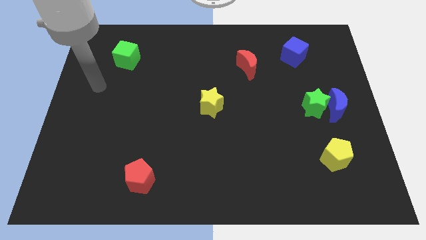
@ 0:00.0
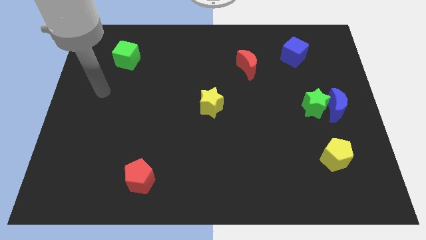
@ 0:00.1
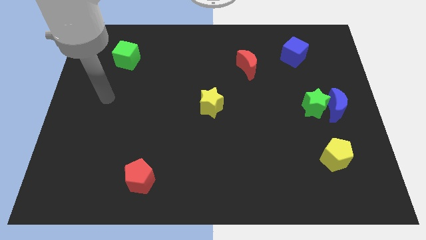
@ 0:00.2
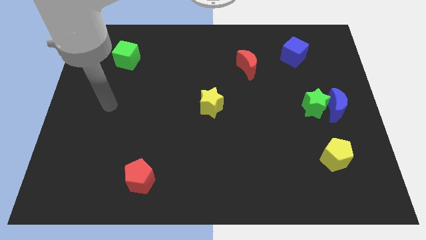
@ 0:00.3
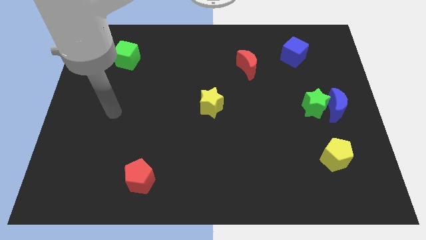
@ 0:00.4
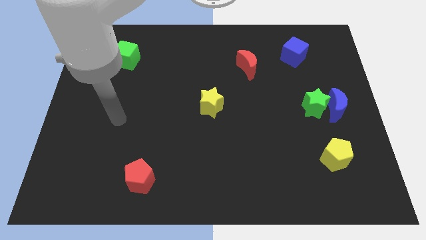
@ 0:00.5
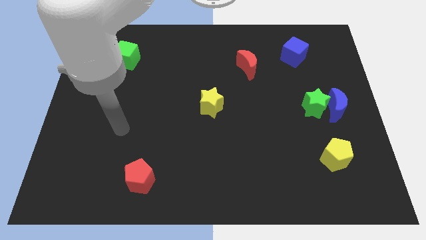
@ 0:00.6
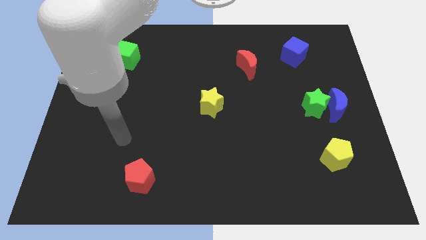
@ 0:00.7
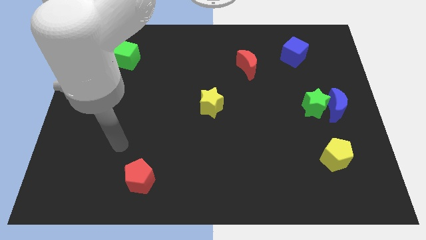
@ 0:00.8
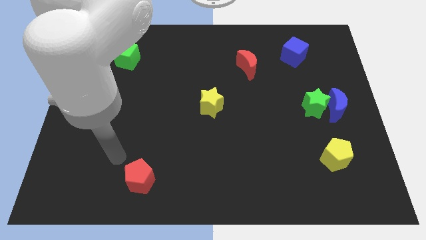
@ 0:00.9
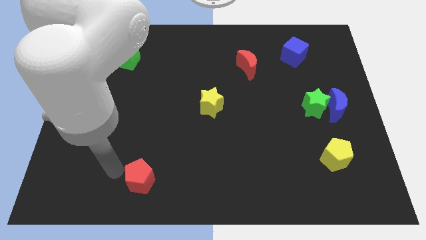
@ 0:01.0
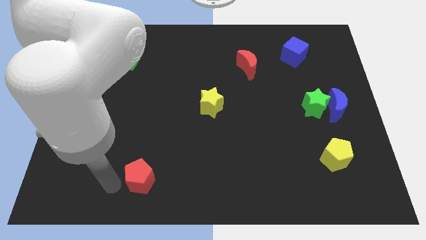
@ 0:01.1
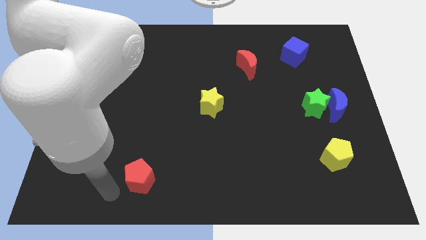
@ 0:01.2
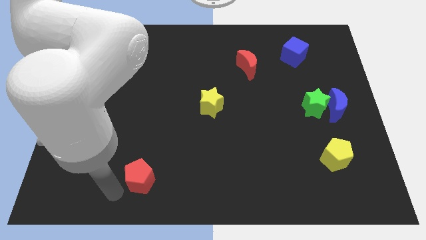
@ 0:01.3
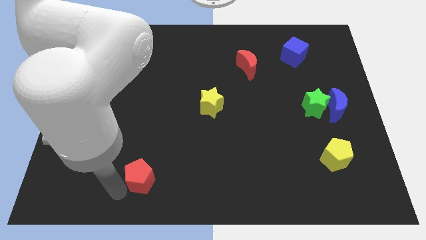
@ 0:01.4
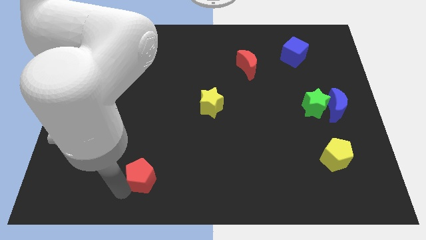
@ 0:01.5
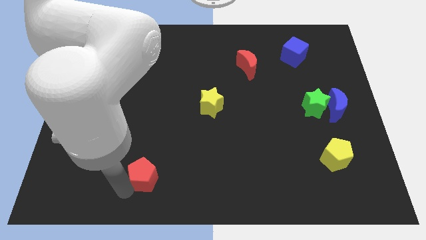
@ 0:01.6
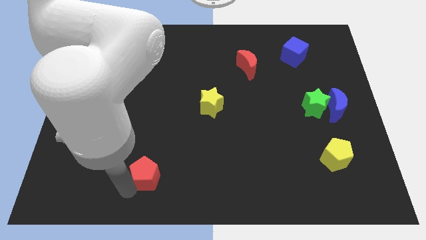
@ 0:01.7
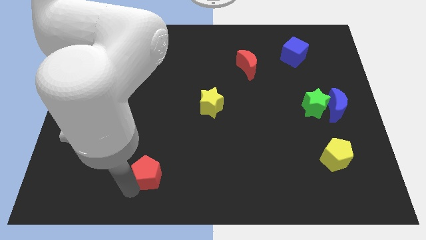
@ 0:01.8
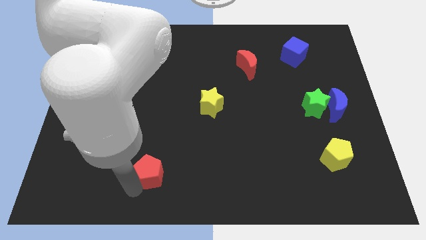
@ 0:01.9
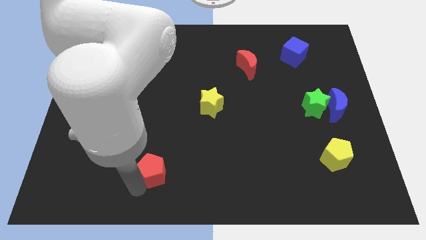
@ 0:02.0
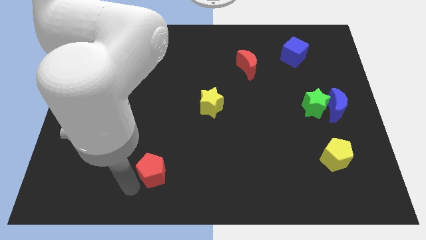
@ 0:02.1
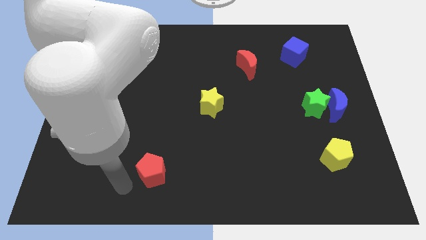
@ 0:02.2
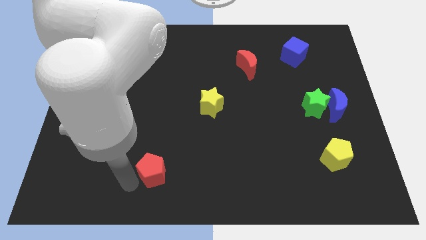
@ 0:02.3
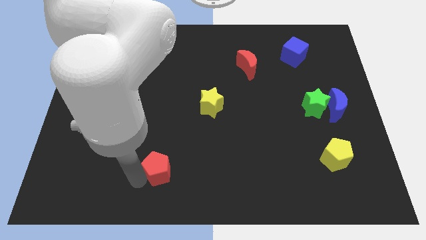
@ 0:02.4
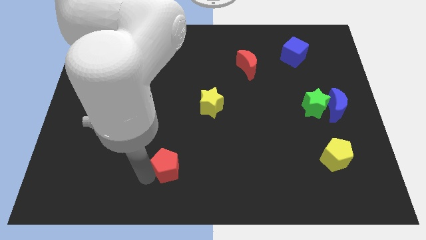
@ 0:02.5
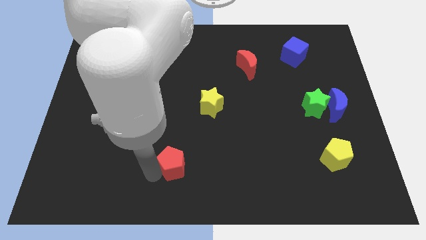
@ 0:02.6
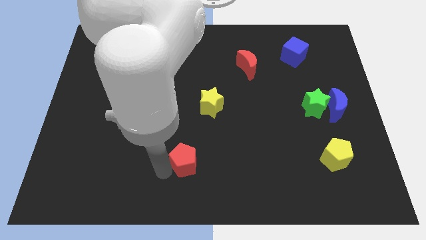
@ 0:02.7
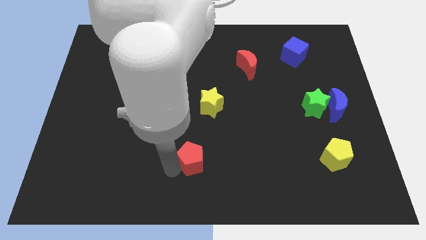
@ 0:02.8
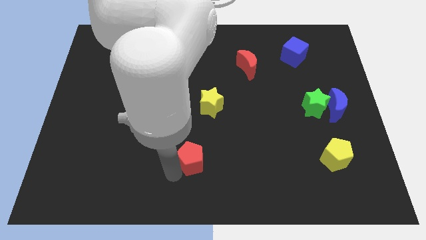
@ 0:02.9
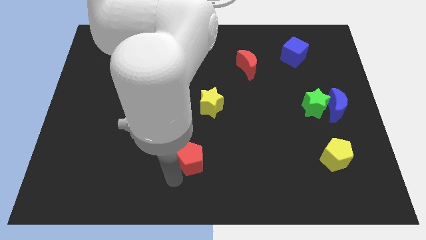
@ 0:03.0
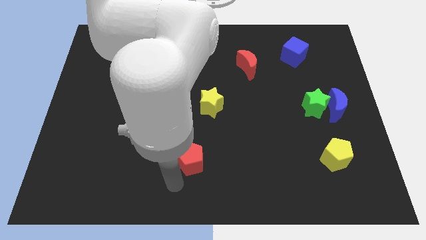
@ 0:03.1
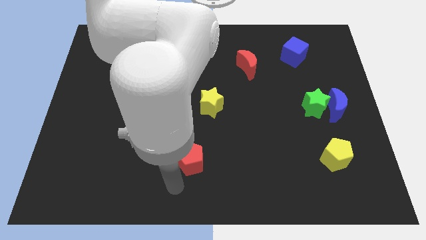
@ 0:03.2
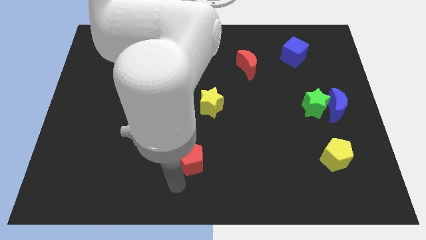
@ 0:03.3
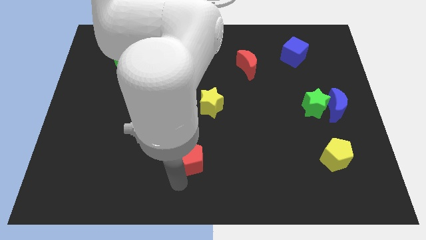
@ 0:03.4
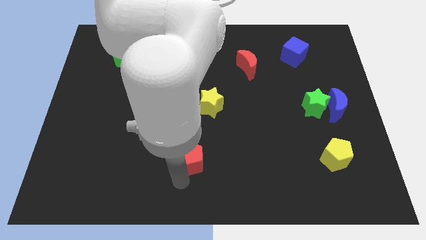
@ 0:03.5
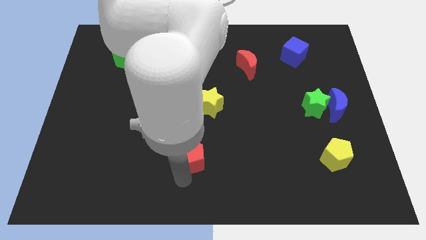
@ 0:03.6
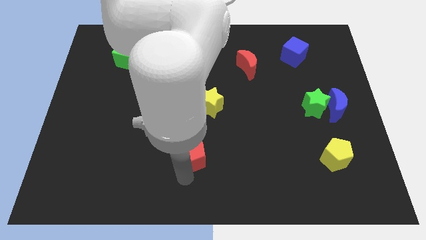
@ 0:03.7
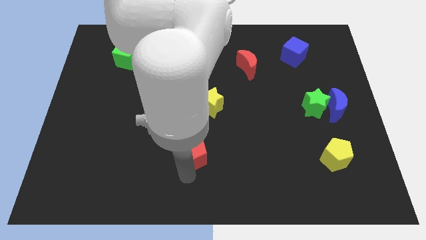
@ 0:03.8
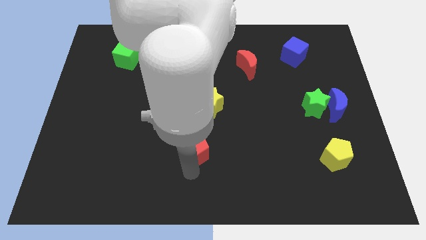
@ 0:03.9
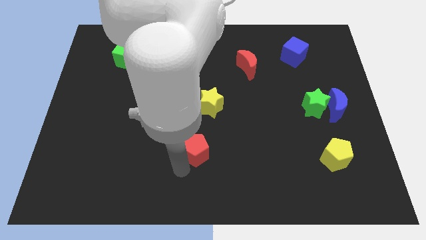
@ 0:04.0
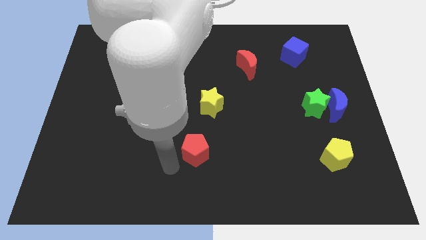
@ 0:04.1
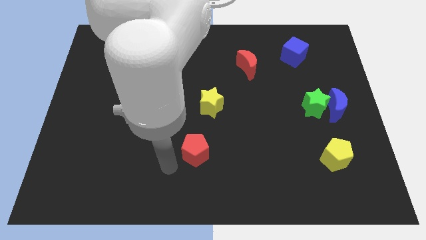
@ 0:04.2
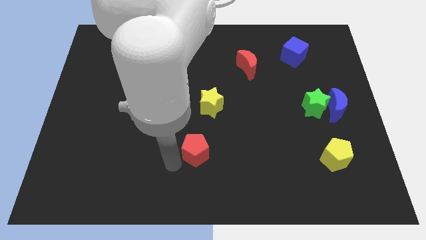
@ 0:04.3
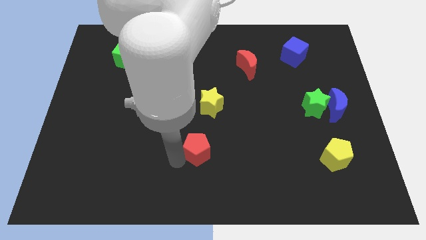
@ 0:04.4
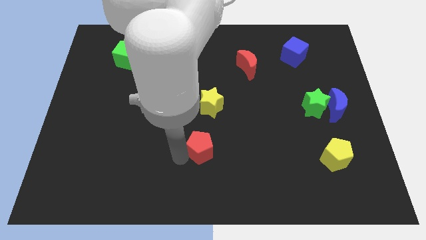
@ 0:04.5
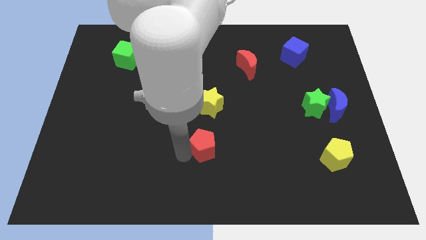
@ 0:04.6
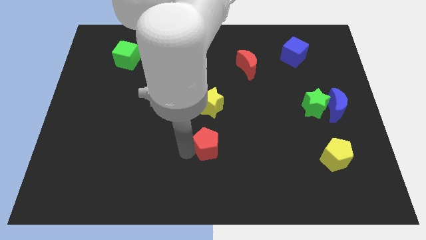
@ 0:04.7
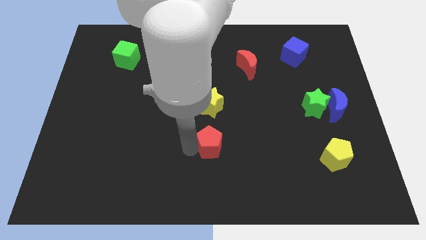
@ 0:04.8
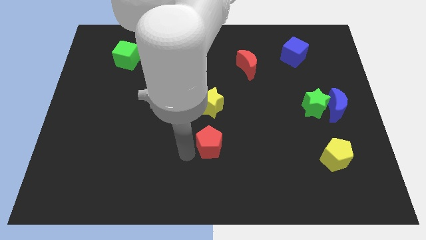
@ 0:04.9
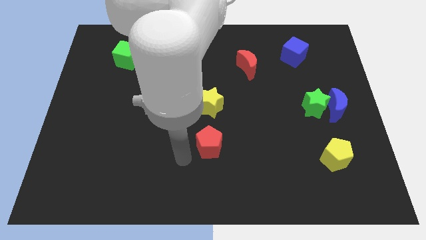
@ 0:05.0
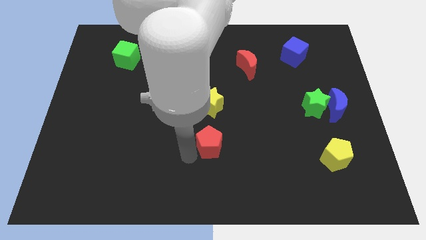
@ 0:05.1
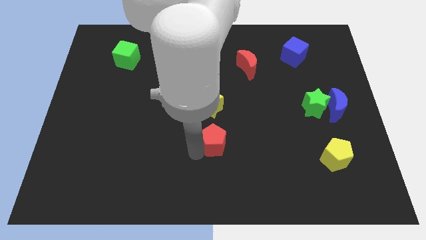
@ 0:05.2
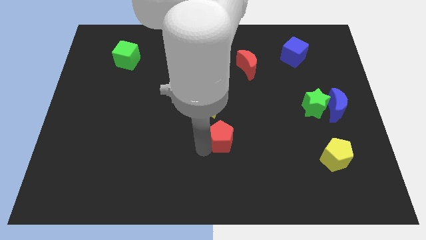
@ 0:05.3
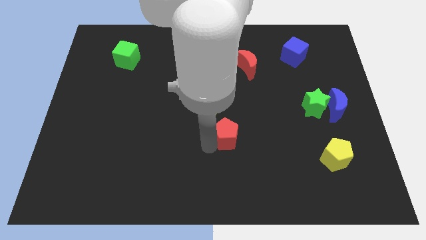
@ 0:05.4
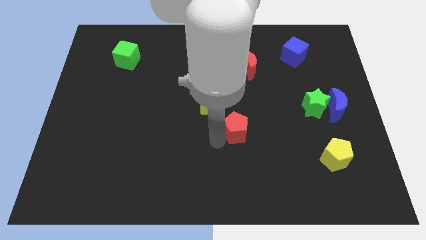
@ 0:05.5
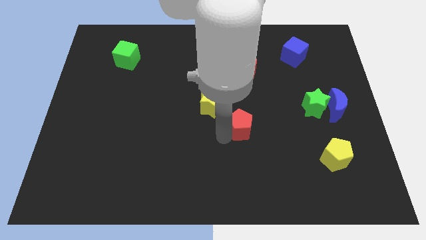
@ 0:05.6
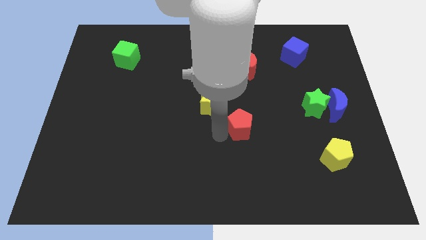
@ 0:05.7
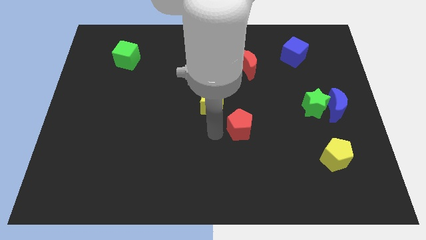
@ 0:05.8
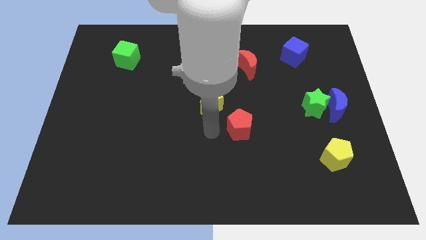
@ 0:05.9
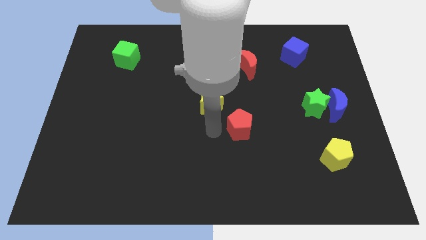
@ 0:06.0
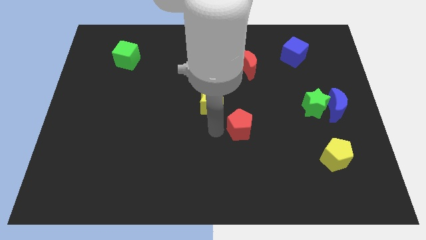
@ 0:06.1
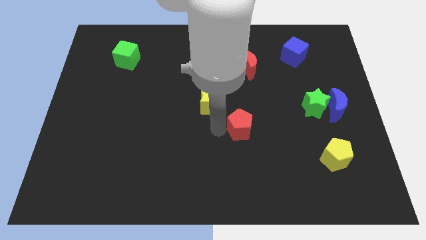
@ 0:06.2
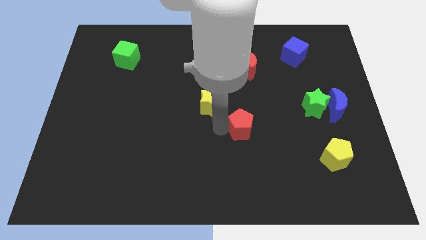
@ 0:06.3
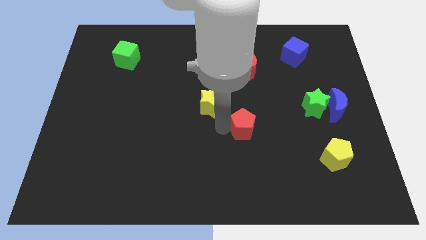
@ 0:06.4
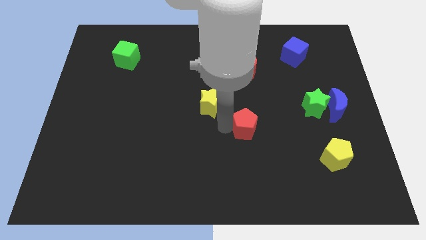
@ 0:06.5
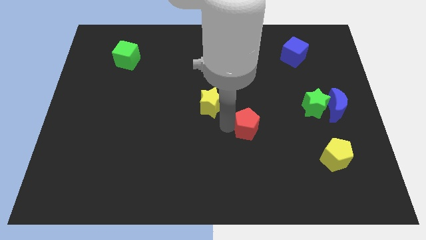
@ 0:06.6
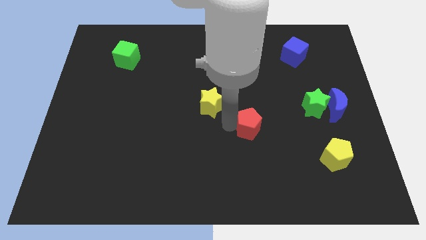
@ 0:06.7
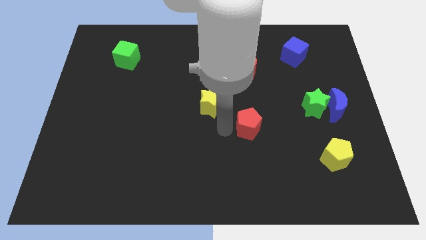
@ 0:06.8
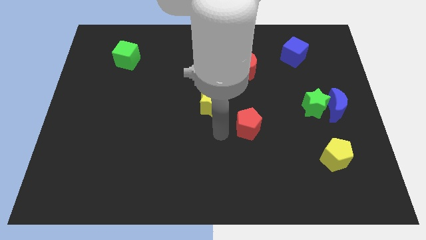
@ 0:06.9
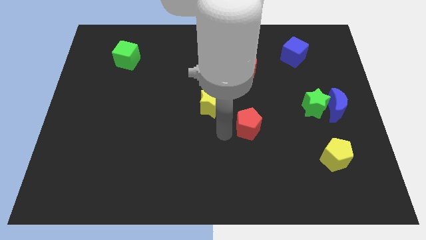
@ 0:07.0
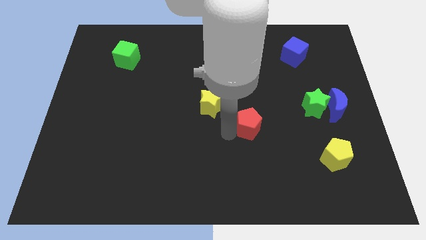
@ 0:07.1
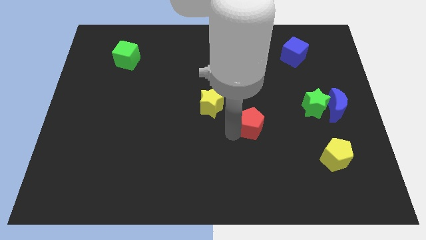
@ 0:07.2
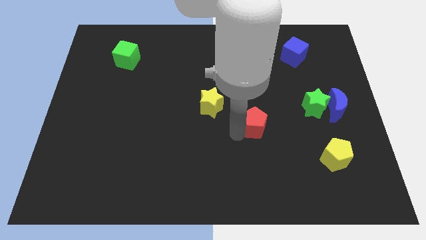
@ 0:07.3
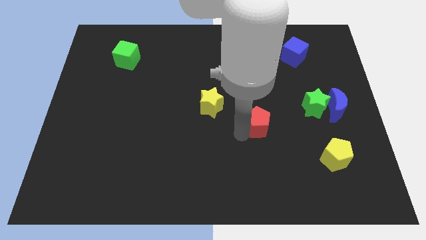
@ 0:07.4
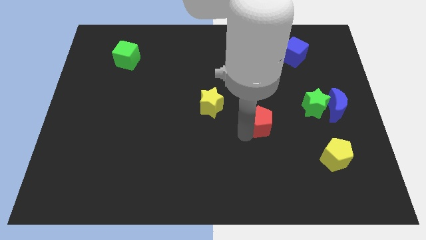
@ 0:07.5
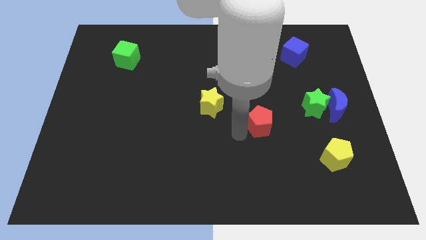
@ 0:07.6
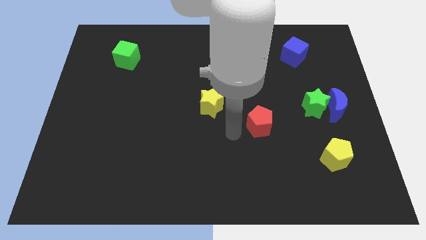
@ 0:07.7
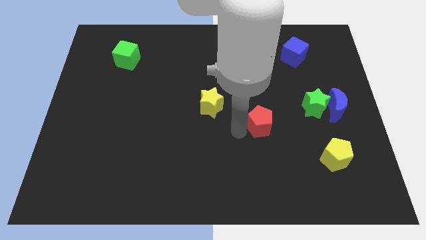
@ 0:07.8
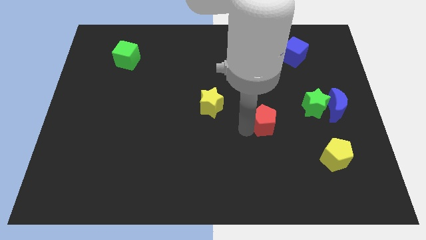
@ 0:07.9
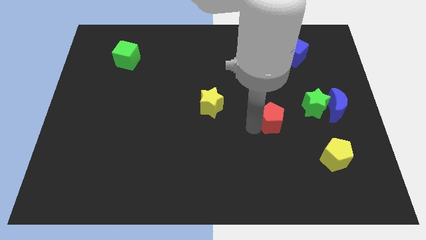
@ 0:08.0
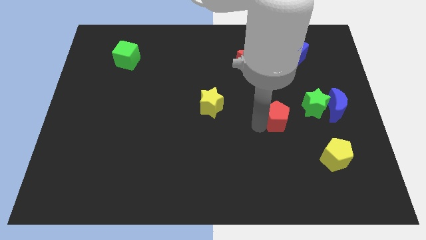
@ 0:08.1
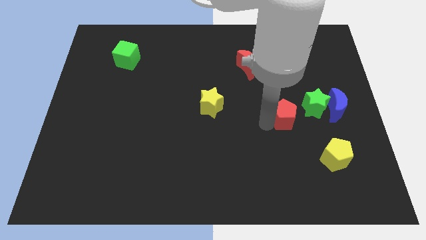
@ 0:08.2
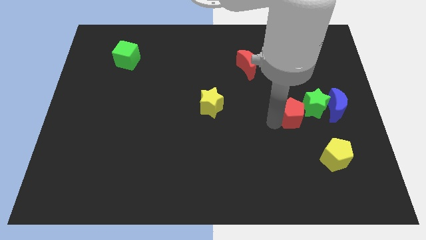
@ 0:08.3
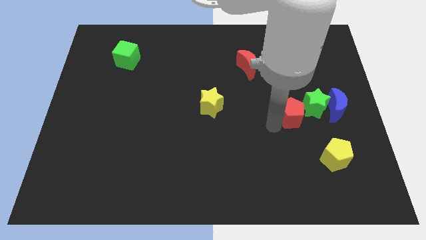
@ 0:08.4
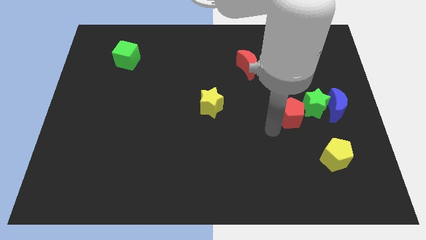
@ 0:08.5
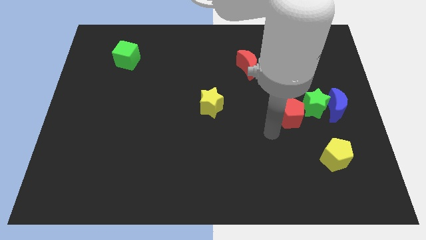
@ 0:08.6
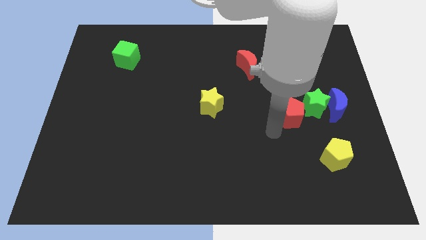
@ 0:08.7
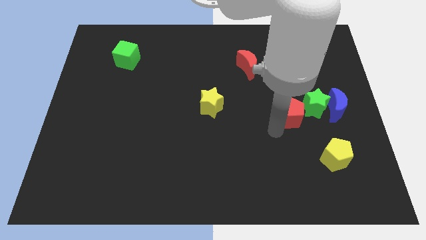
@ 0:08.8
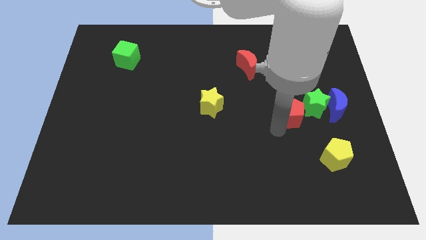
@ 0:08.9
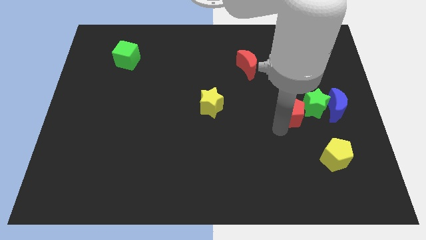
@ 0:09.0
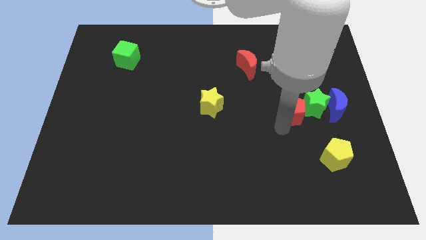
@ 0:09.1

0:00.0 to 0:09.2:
put the red pentagon close to the green star
